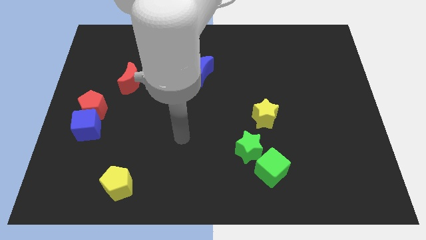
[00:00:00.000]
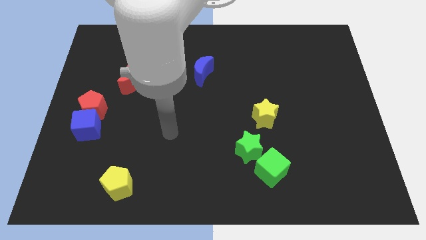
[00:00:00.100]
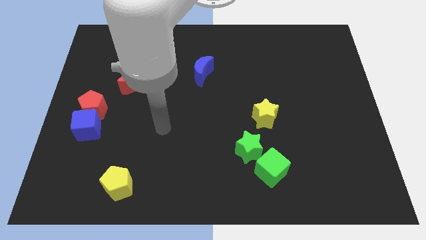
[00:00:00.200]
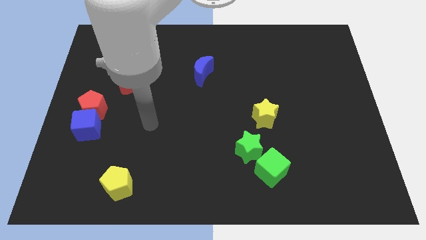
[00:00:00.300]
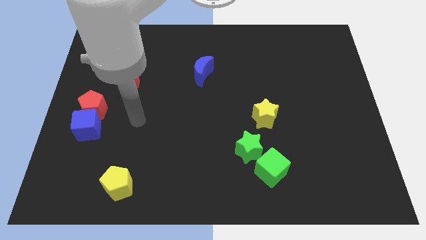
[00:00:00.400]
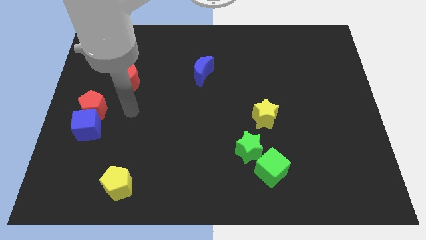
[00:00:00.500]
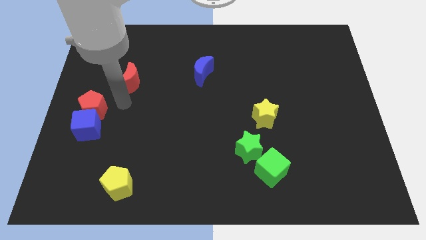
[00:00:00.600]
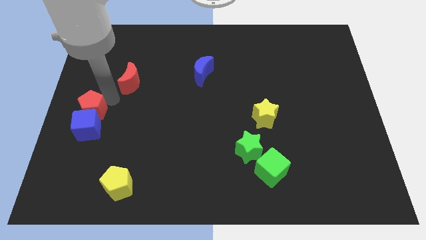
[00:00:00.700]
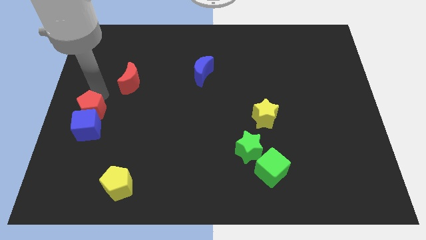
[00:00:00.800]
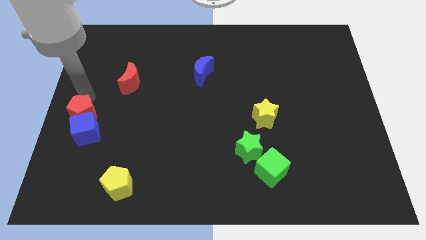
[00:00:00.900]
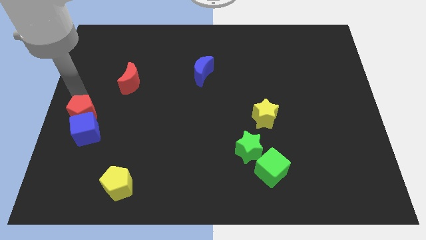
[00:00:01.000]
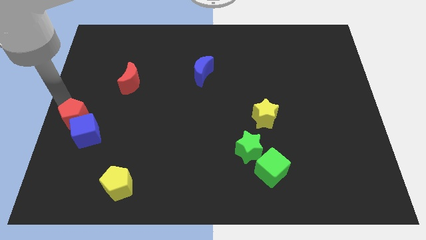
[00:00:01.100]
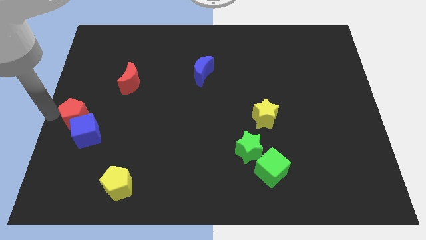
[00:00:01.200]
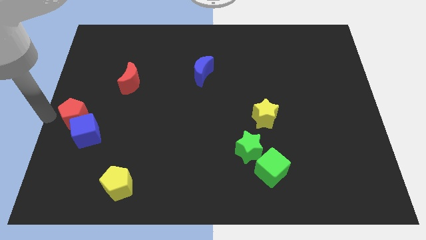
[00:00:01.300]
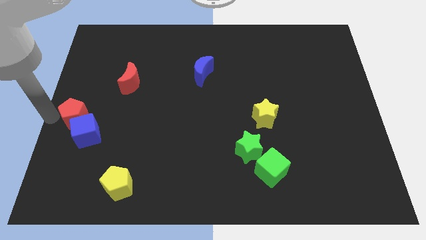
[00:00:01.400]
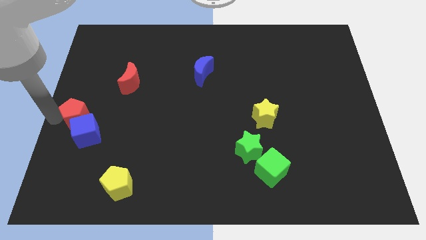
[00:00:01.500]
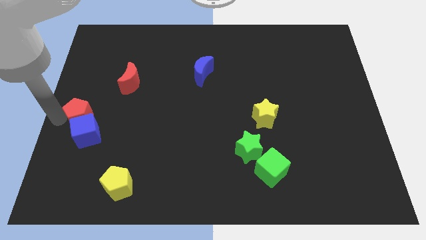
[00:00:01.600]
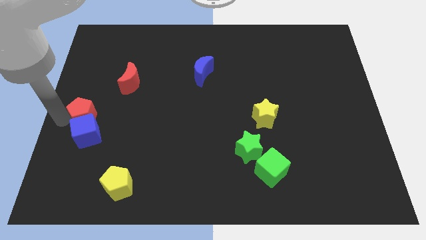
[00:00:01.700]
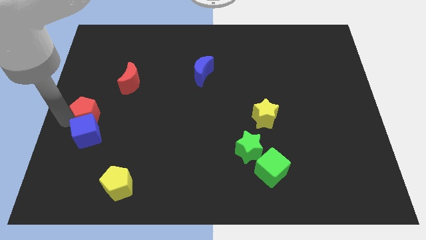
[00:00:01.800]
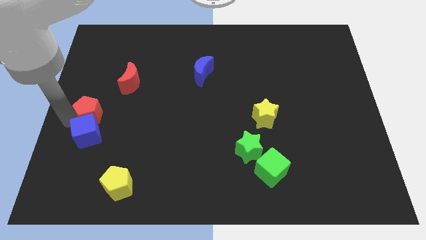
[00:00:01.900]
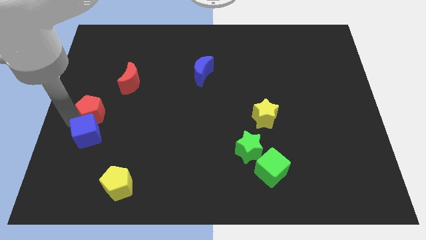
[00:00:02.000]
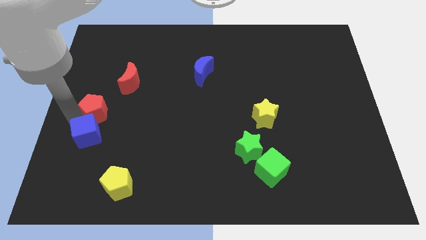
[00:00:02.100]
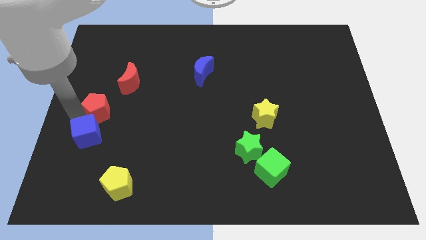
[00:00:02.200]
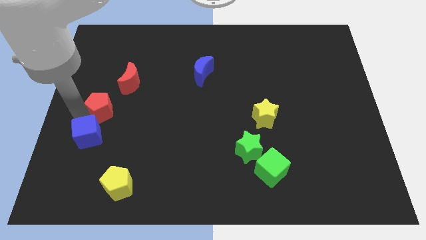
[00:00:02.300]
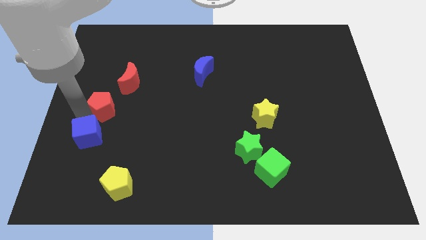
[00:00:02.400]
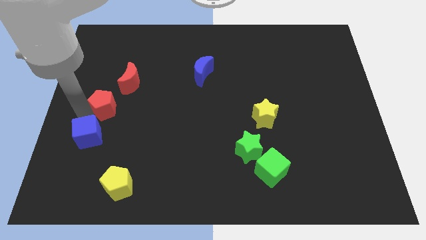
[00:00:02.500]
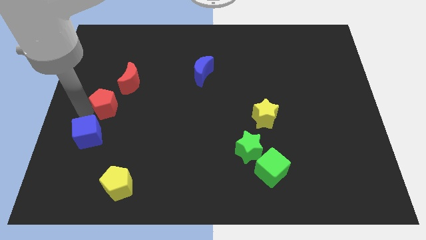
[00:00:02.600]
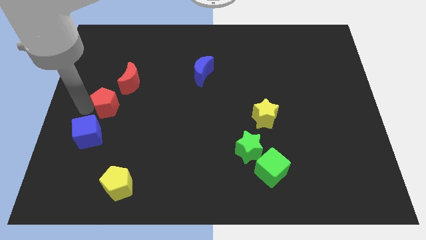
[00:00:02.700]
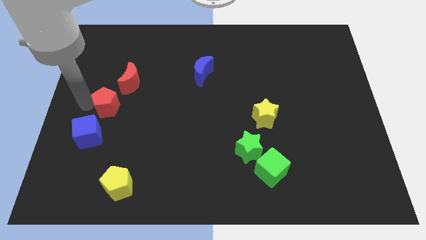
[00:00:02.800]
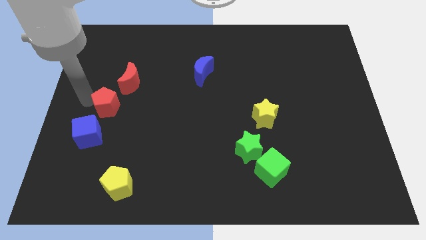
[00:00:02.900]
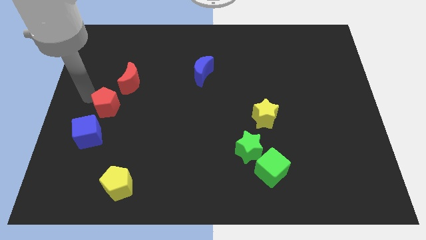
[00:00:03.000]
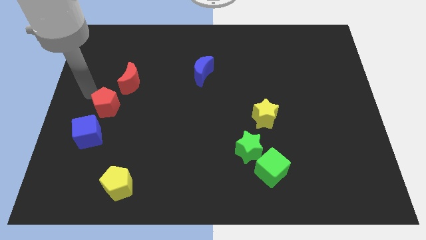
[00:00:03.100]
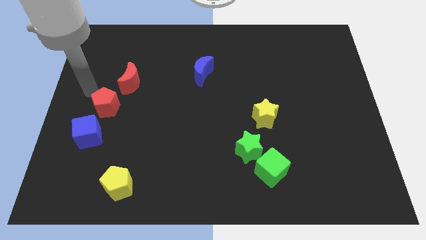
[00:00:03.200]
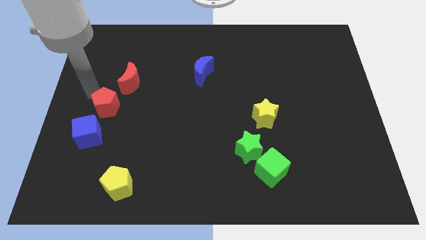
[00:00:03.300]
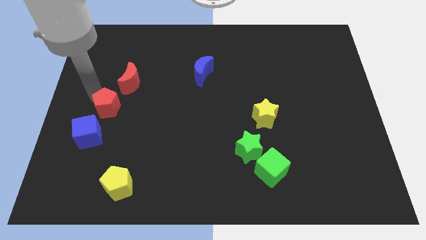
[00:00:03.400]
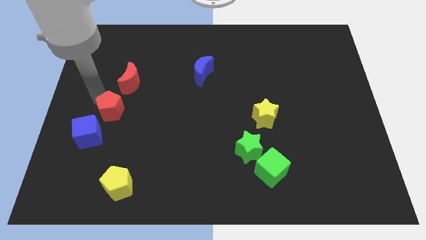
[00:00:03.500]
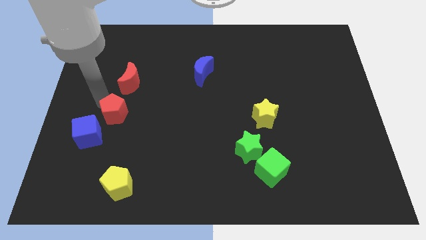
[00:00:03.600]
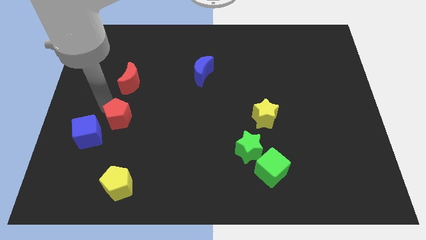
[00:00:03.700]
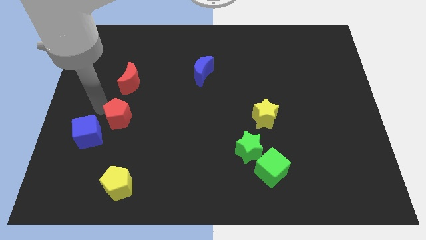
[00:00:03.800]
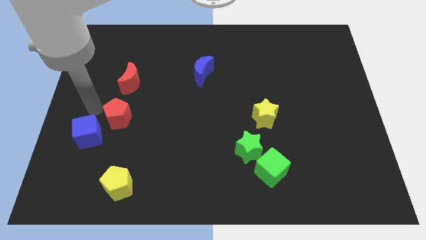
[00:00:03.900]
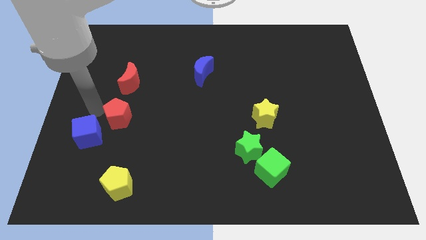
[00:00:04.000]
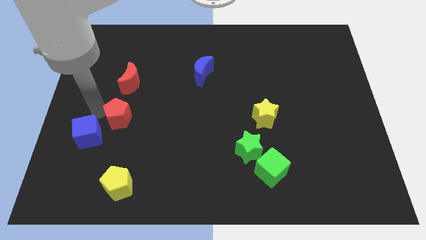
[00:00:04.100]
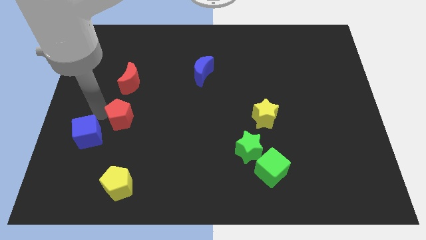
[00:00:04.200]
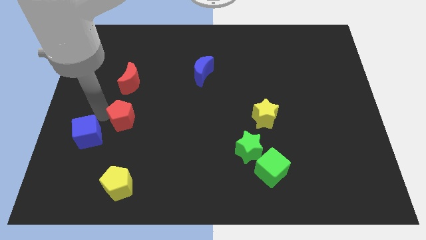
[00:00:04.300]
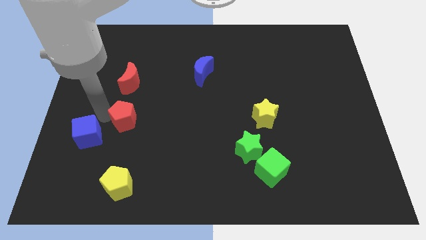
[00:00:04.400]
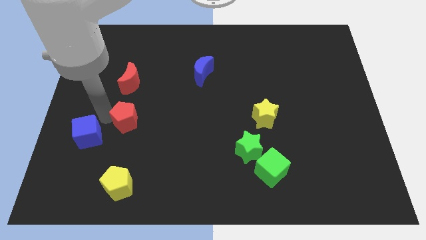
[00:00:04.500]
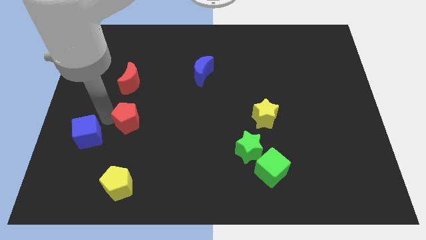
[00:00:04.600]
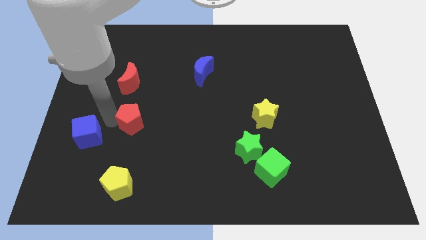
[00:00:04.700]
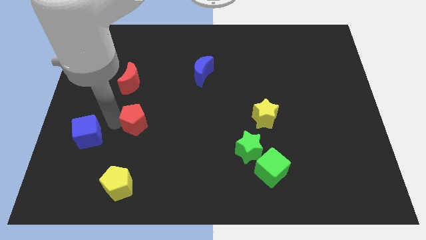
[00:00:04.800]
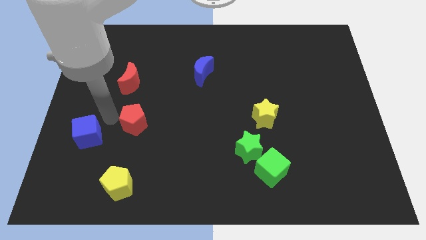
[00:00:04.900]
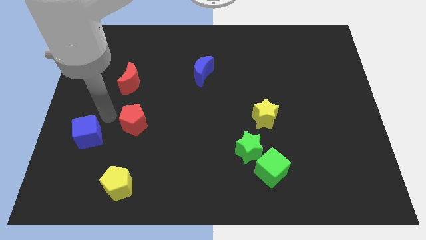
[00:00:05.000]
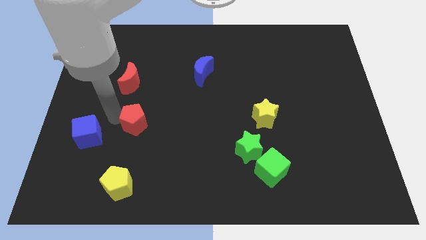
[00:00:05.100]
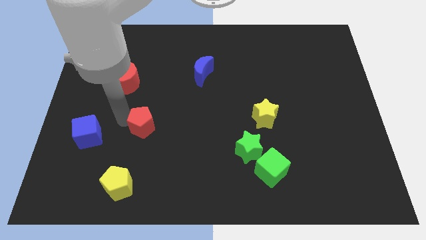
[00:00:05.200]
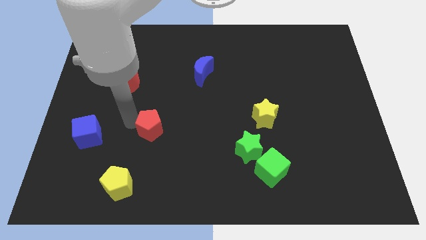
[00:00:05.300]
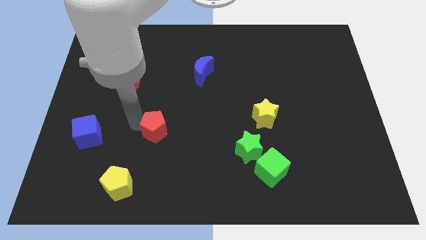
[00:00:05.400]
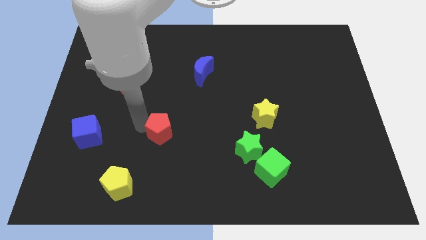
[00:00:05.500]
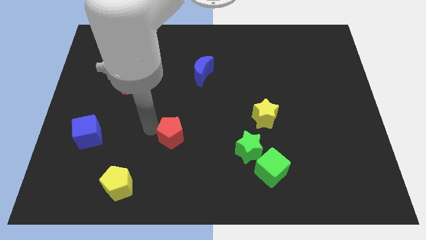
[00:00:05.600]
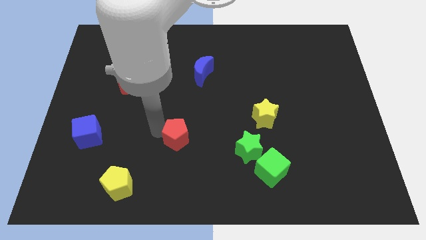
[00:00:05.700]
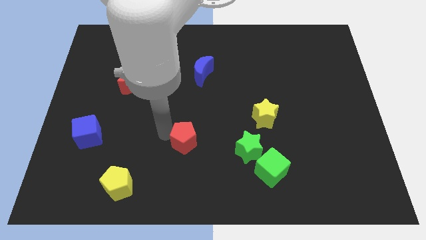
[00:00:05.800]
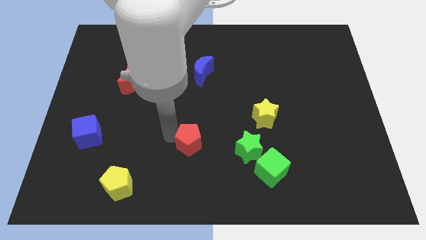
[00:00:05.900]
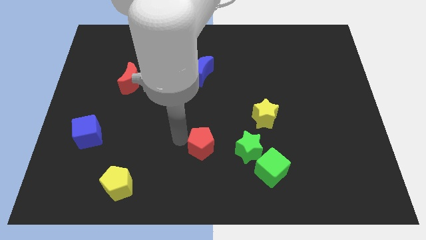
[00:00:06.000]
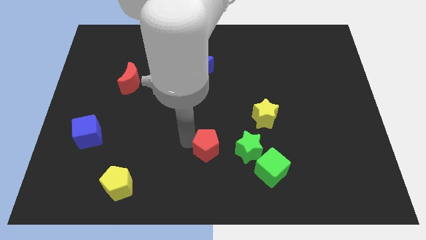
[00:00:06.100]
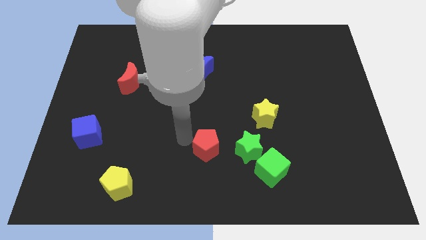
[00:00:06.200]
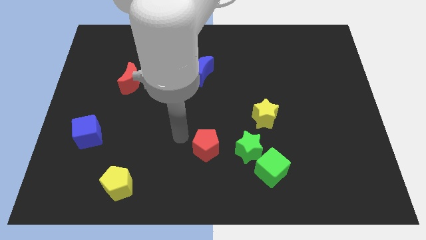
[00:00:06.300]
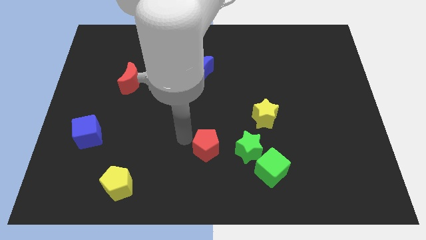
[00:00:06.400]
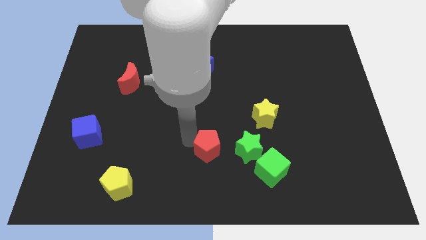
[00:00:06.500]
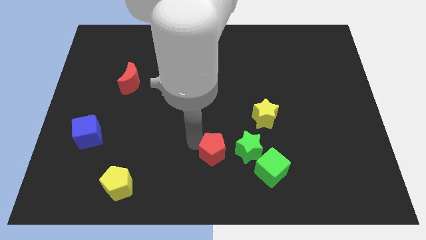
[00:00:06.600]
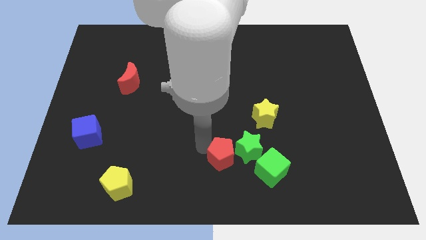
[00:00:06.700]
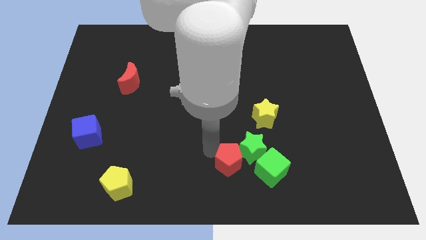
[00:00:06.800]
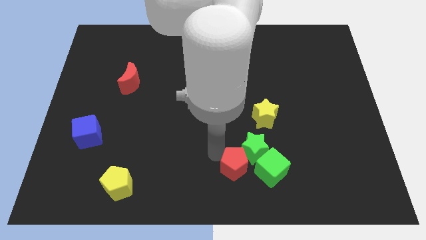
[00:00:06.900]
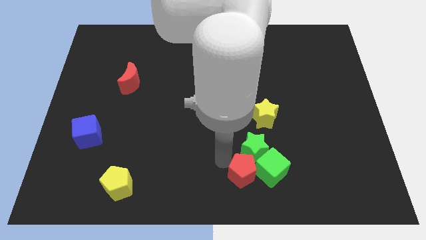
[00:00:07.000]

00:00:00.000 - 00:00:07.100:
put the red pentagon close to the green cube
